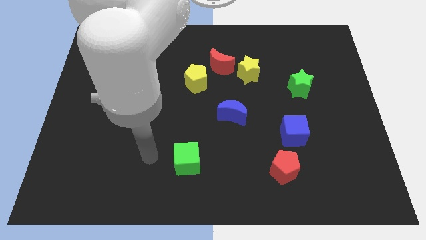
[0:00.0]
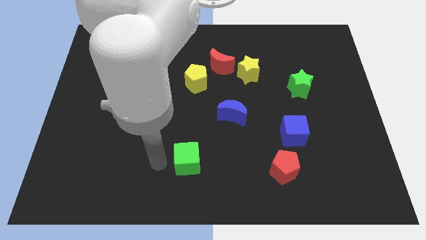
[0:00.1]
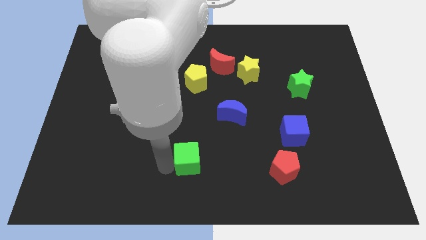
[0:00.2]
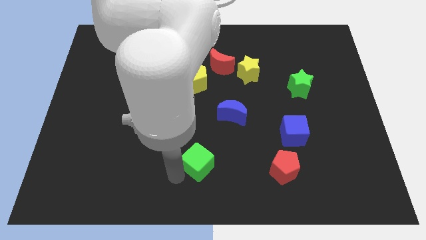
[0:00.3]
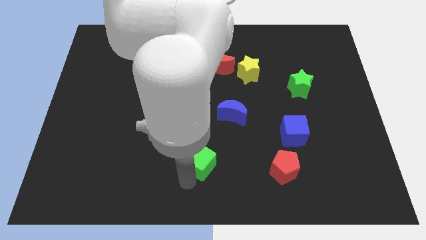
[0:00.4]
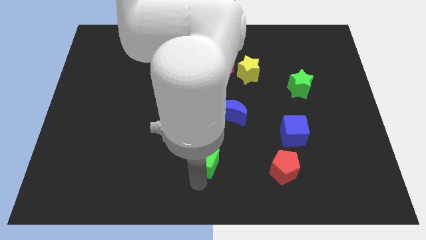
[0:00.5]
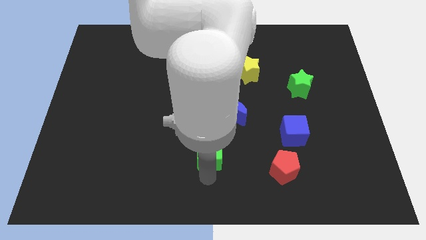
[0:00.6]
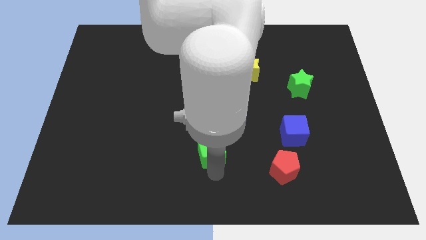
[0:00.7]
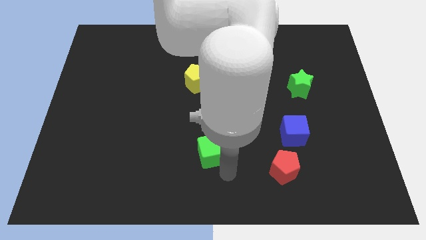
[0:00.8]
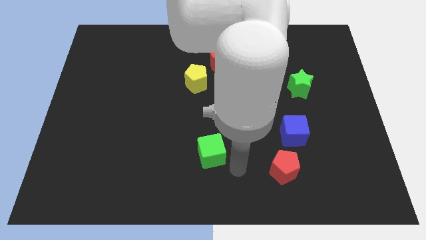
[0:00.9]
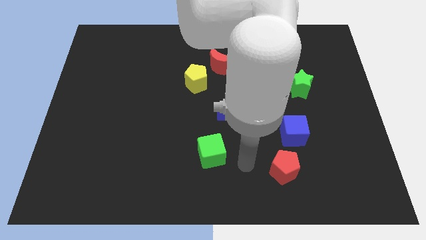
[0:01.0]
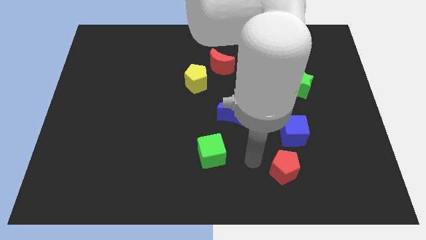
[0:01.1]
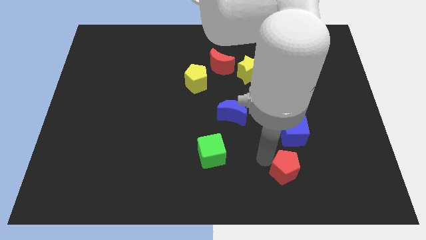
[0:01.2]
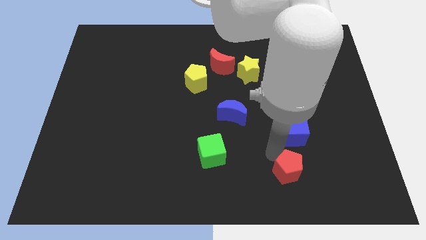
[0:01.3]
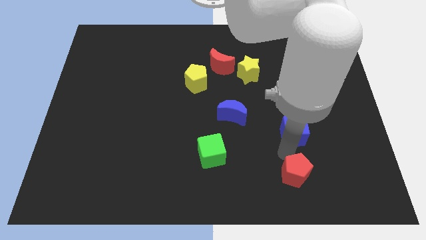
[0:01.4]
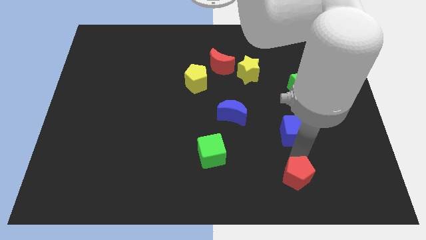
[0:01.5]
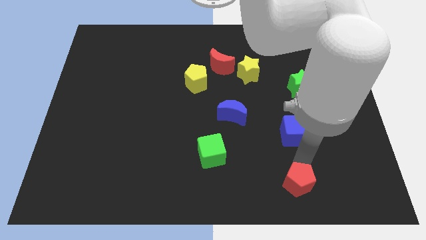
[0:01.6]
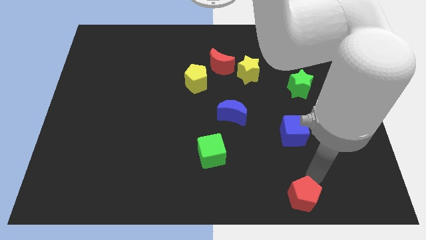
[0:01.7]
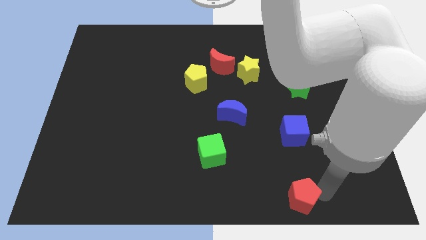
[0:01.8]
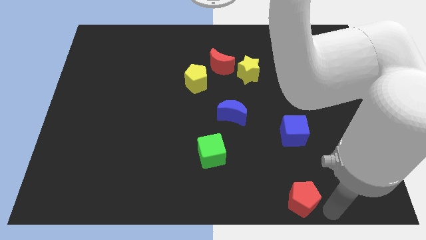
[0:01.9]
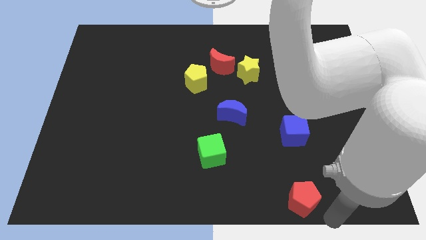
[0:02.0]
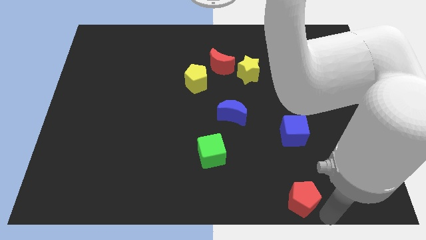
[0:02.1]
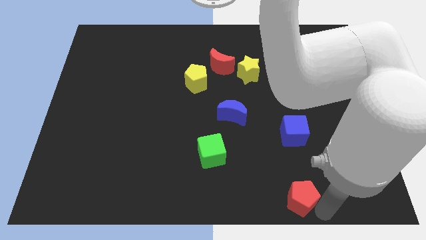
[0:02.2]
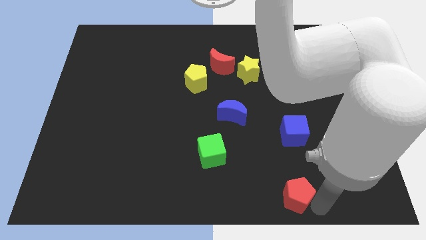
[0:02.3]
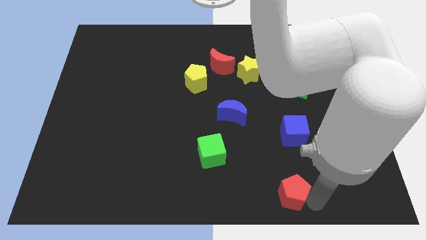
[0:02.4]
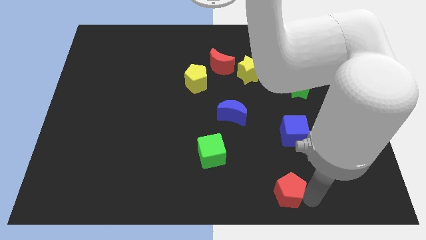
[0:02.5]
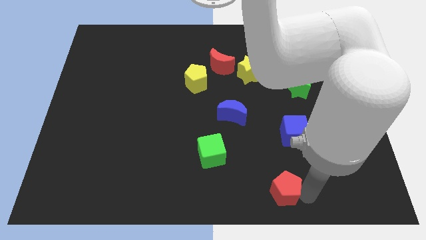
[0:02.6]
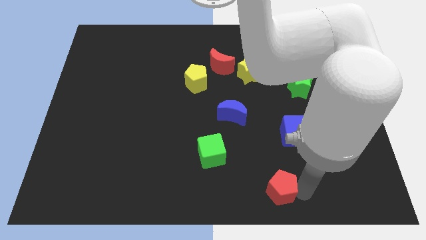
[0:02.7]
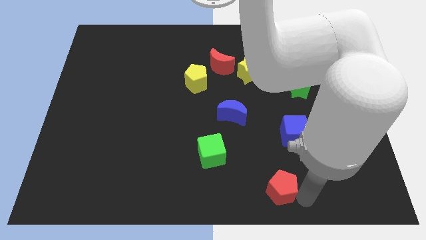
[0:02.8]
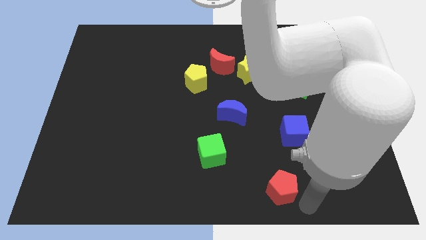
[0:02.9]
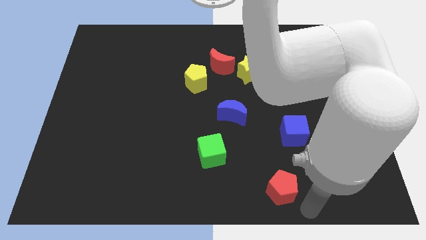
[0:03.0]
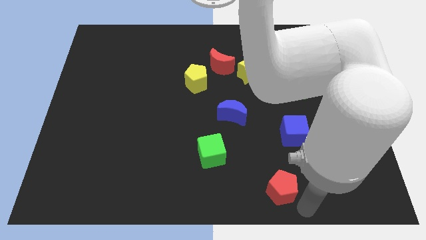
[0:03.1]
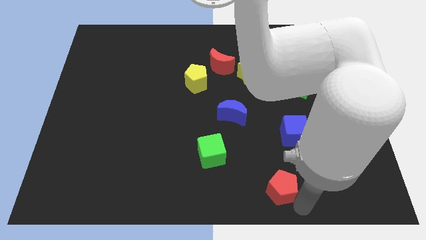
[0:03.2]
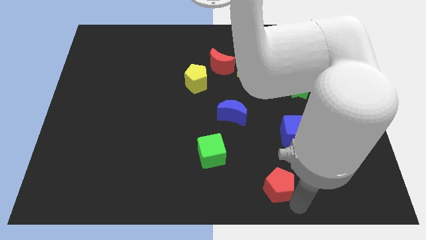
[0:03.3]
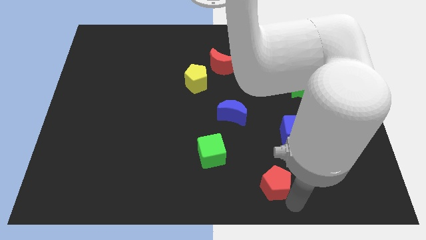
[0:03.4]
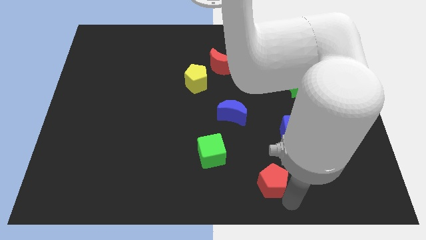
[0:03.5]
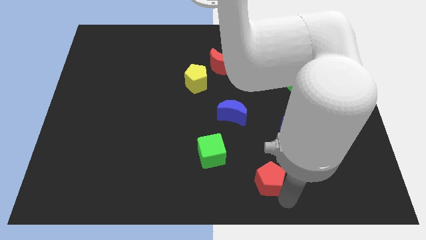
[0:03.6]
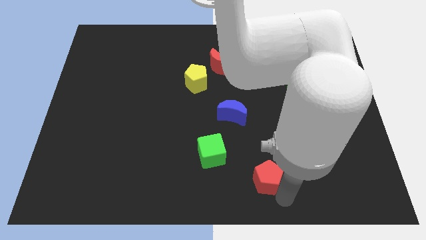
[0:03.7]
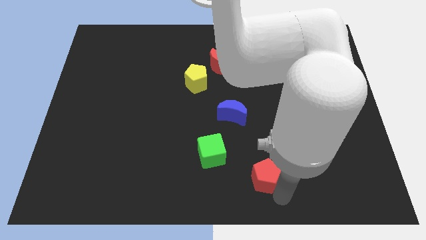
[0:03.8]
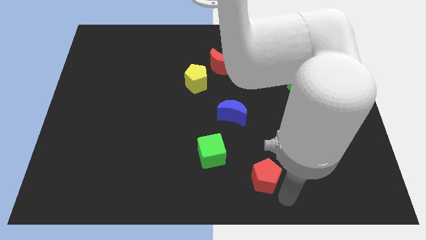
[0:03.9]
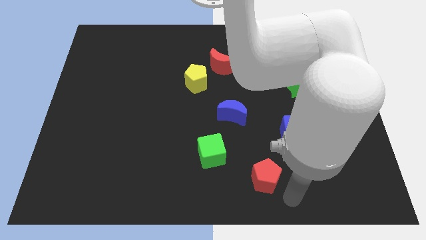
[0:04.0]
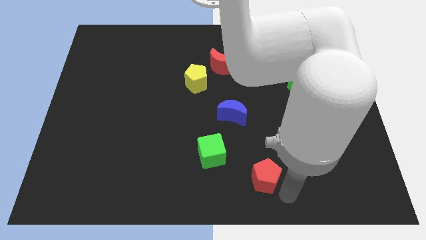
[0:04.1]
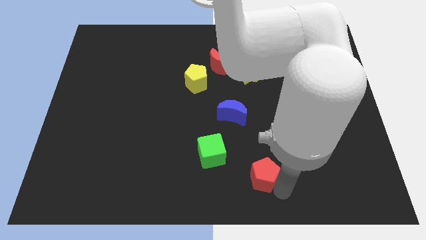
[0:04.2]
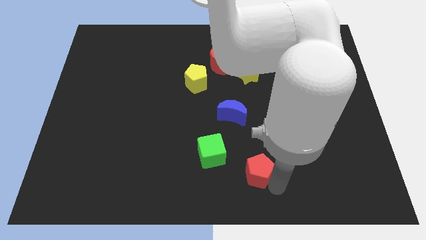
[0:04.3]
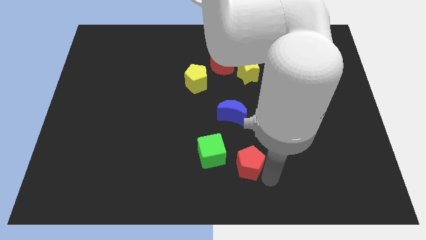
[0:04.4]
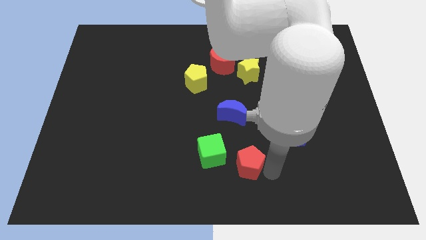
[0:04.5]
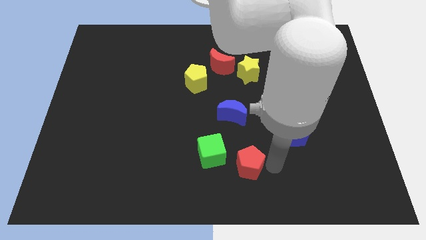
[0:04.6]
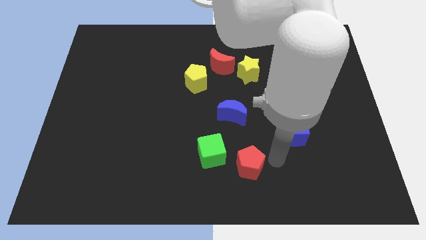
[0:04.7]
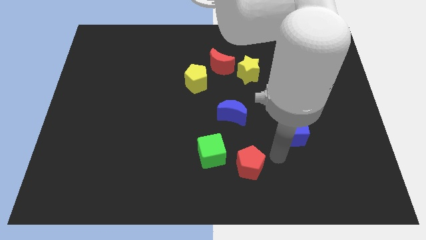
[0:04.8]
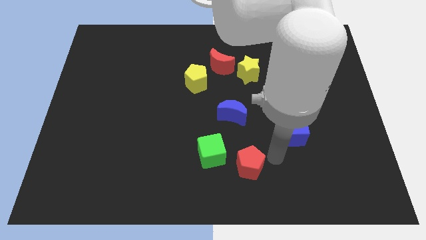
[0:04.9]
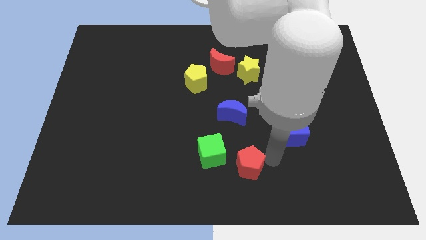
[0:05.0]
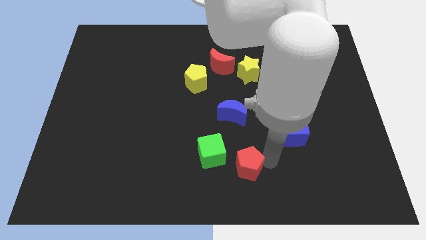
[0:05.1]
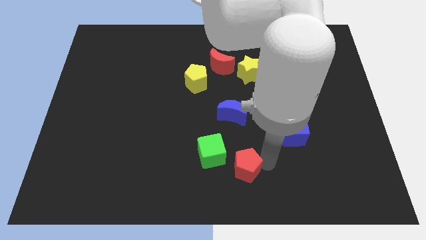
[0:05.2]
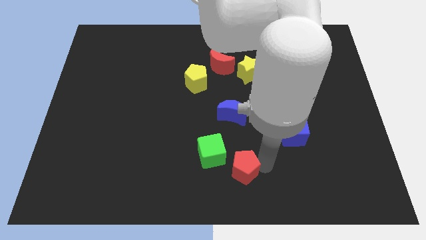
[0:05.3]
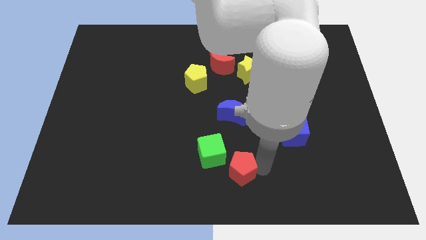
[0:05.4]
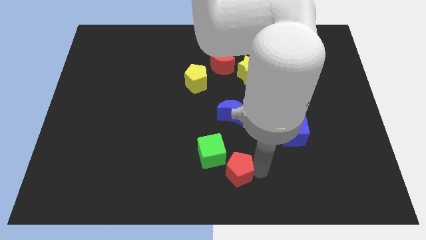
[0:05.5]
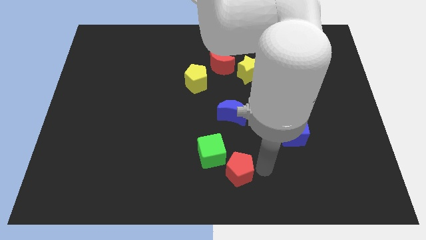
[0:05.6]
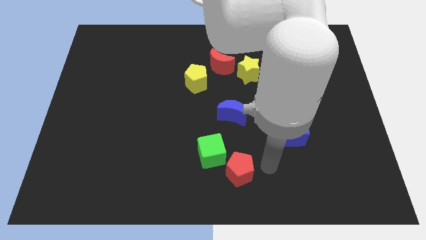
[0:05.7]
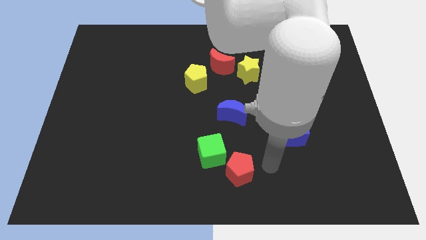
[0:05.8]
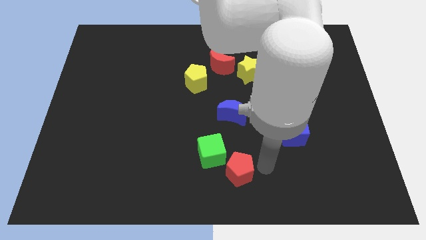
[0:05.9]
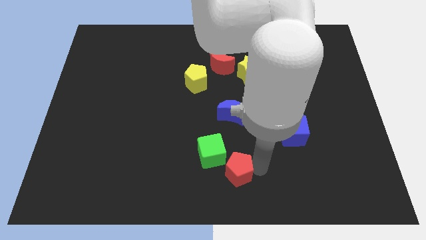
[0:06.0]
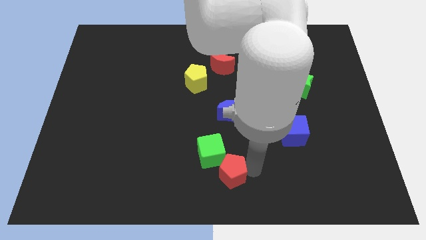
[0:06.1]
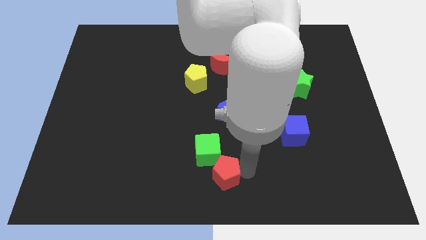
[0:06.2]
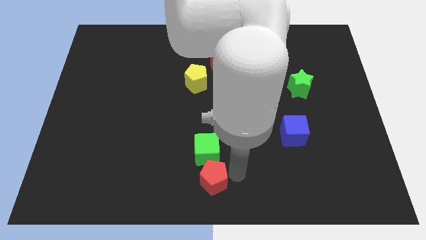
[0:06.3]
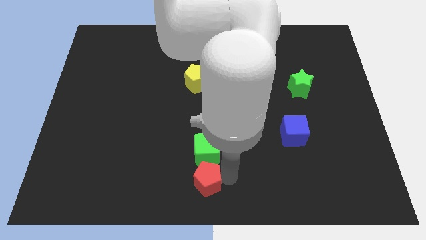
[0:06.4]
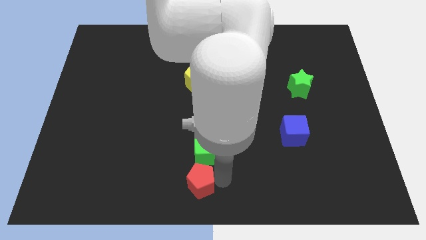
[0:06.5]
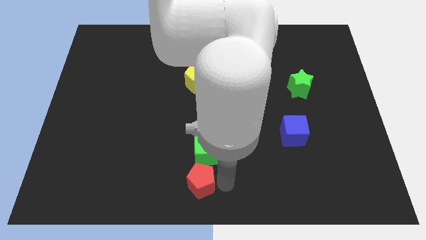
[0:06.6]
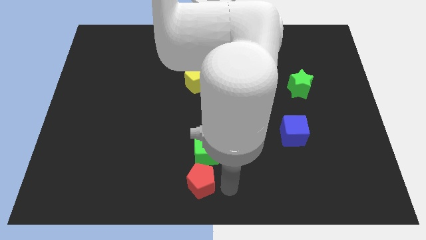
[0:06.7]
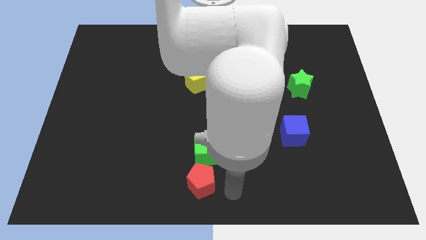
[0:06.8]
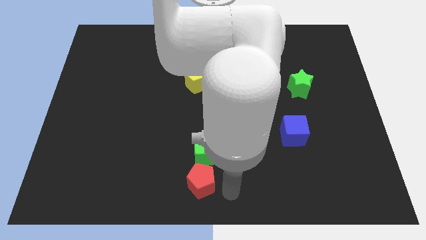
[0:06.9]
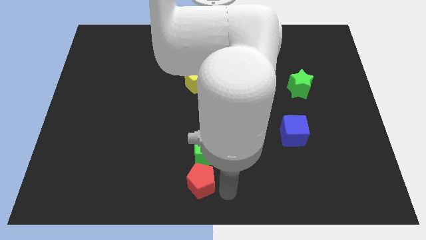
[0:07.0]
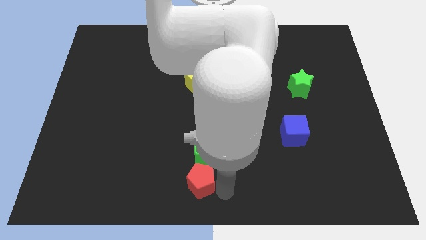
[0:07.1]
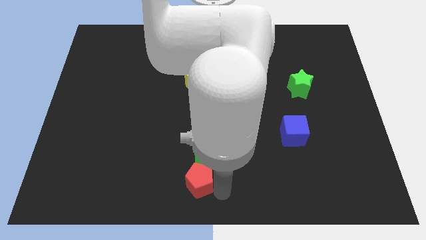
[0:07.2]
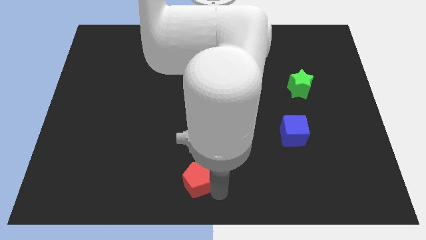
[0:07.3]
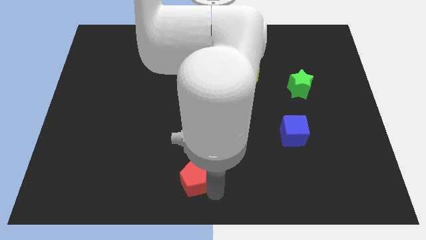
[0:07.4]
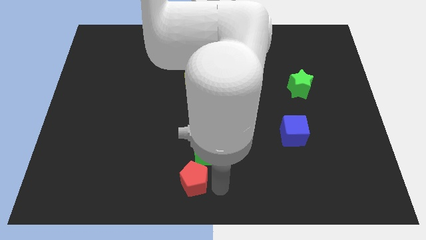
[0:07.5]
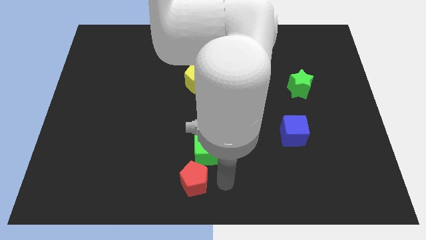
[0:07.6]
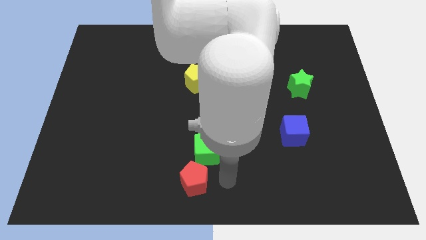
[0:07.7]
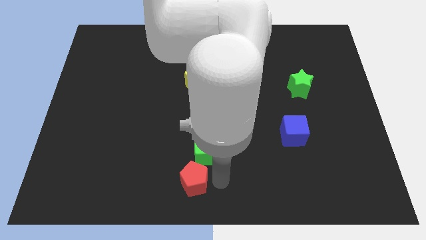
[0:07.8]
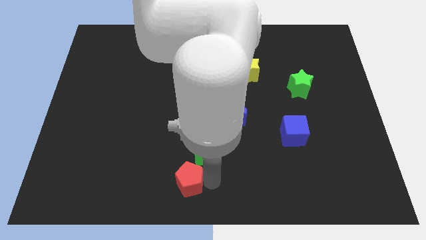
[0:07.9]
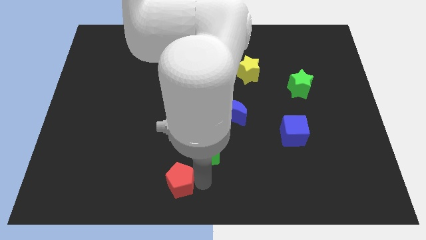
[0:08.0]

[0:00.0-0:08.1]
slide the red pentagon to the left
